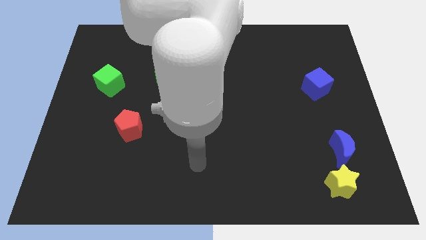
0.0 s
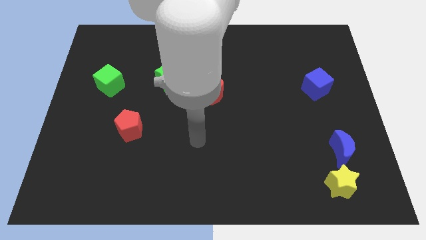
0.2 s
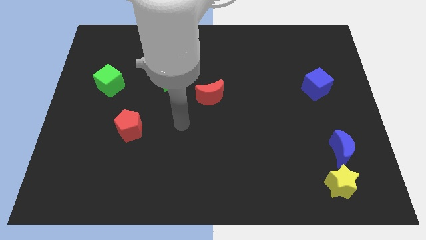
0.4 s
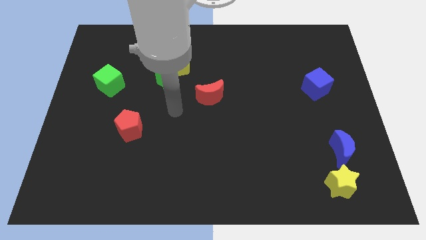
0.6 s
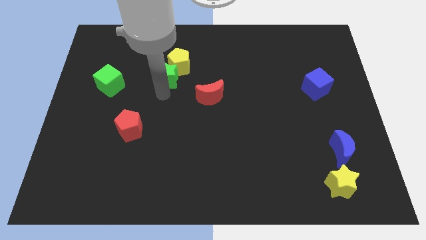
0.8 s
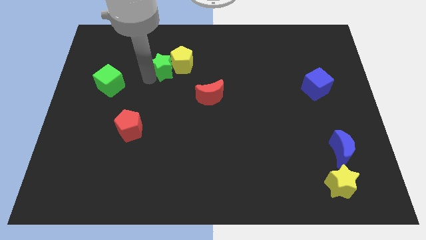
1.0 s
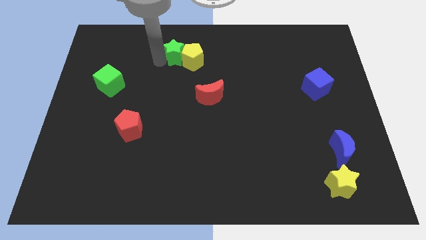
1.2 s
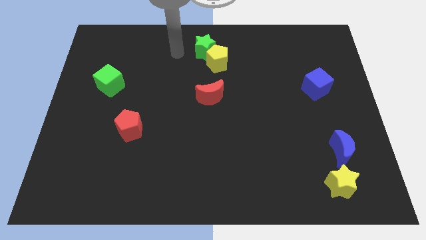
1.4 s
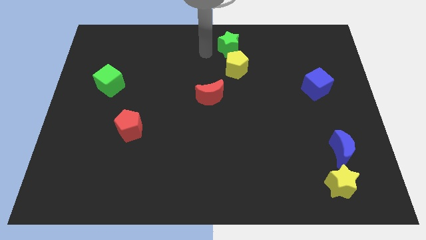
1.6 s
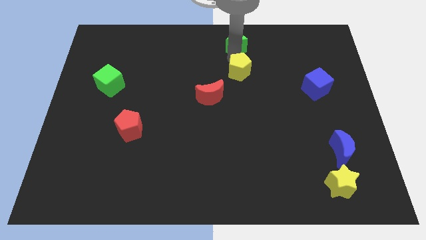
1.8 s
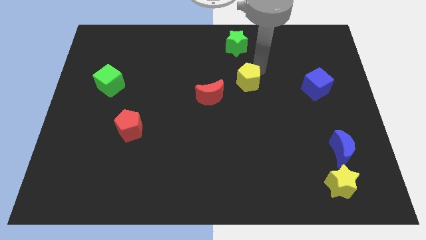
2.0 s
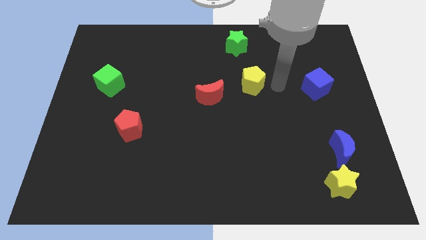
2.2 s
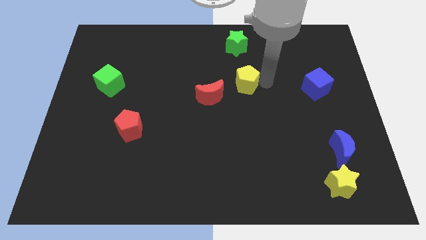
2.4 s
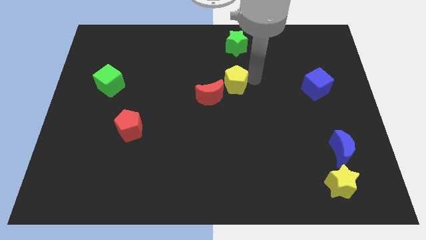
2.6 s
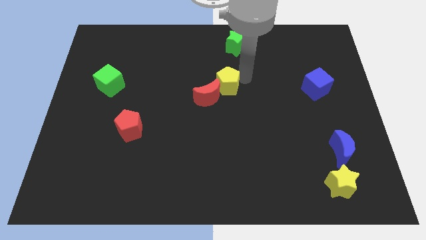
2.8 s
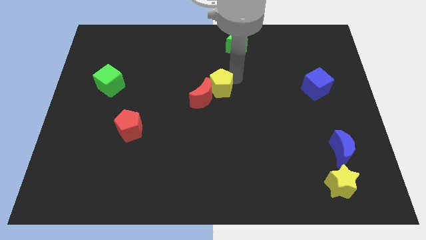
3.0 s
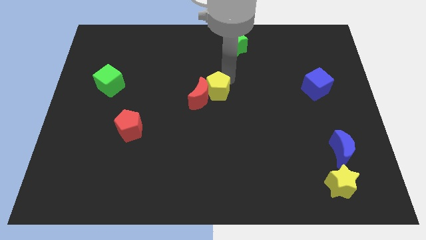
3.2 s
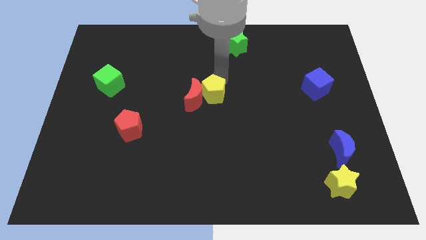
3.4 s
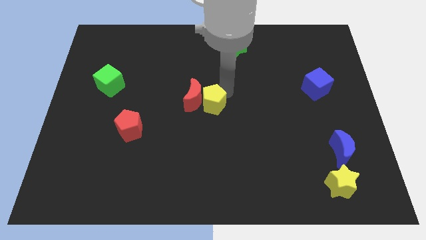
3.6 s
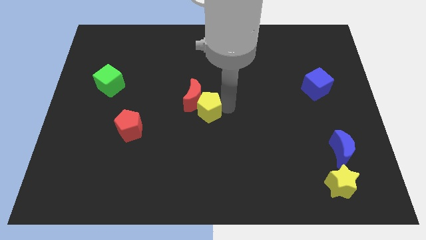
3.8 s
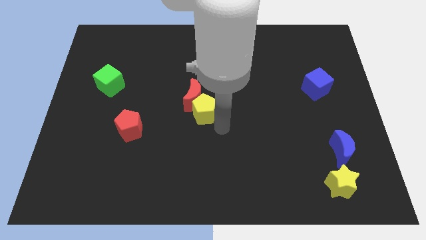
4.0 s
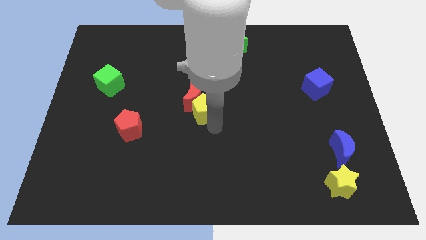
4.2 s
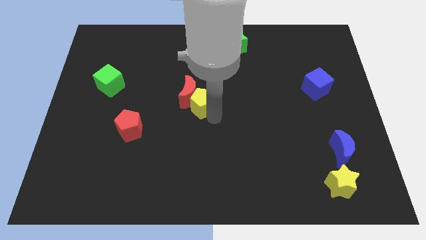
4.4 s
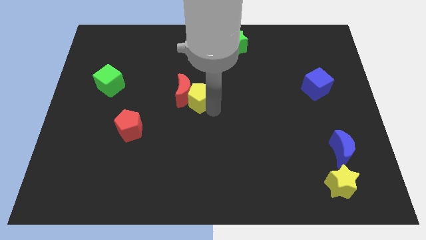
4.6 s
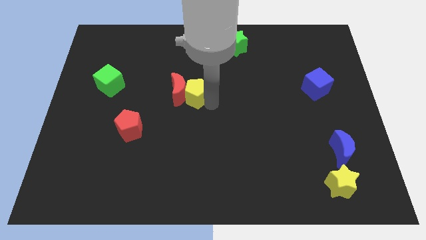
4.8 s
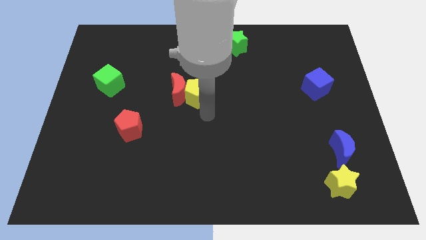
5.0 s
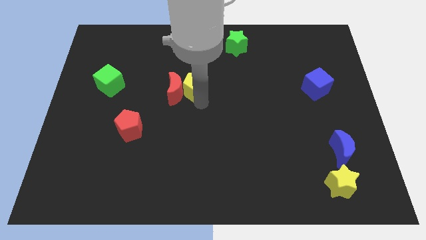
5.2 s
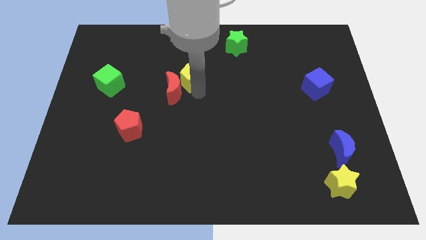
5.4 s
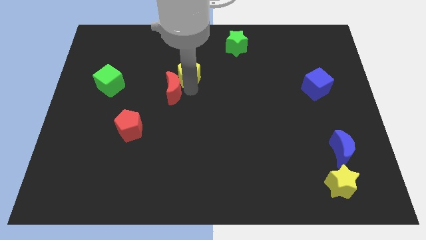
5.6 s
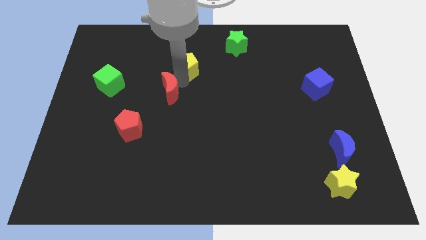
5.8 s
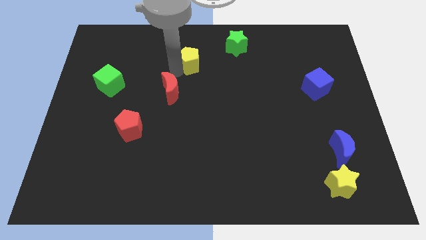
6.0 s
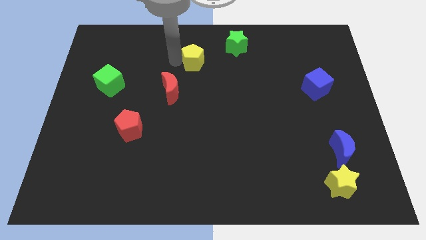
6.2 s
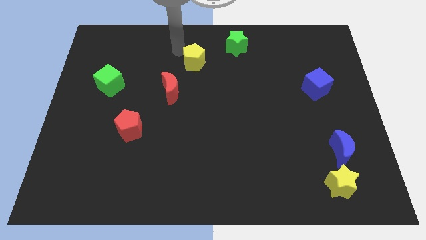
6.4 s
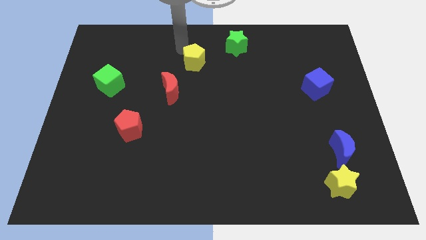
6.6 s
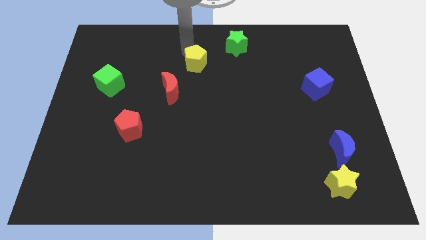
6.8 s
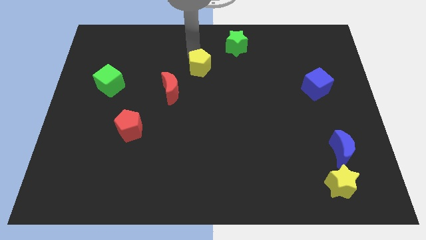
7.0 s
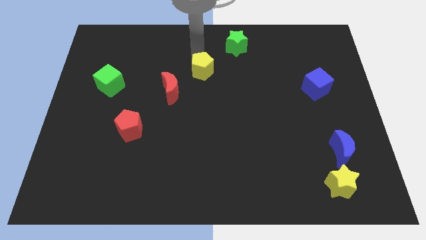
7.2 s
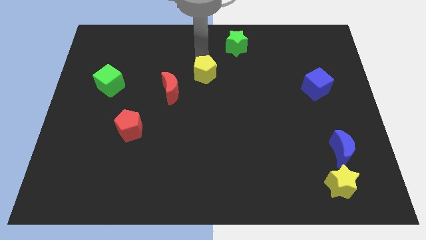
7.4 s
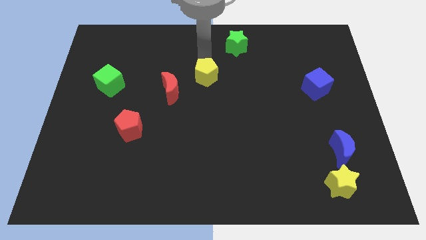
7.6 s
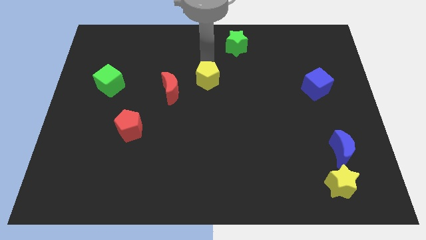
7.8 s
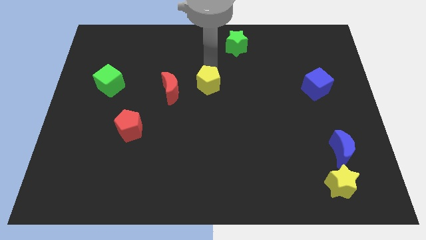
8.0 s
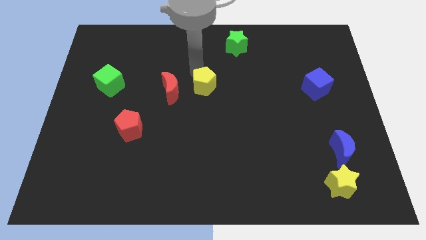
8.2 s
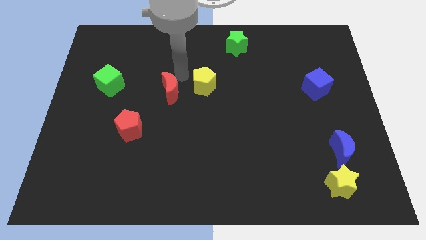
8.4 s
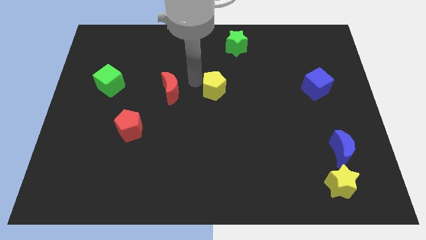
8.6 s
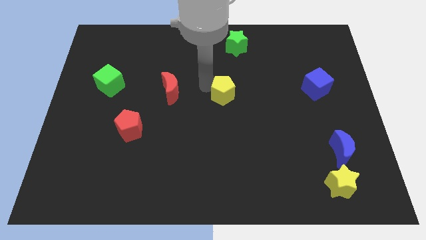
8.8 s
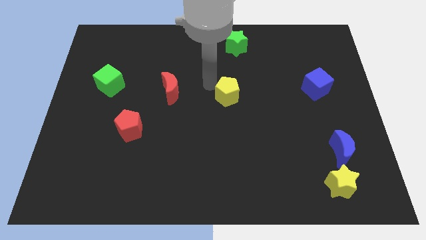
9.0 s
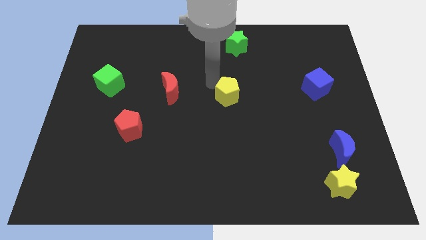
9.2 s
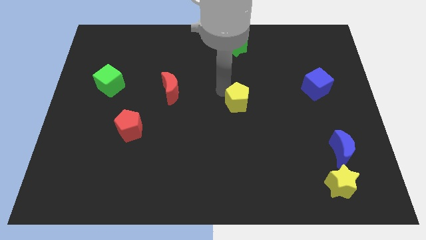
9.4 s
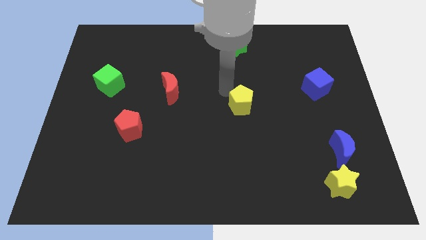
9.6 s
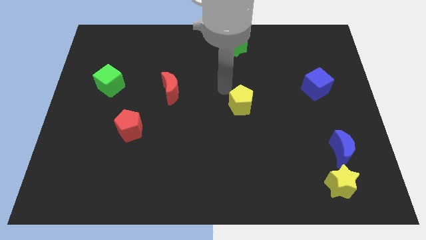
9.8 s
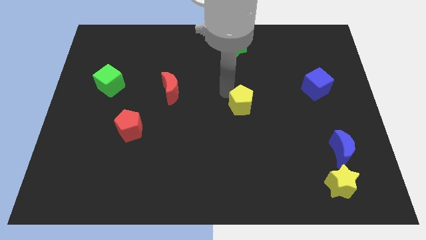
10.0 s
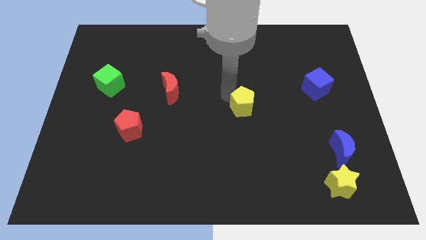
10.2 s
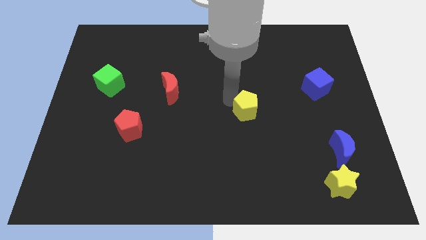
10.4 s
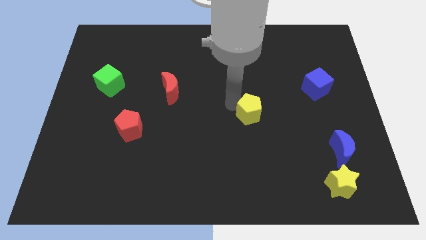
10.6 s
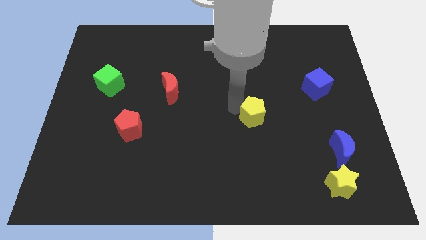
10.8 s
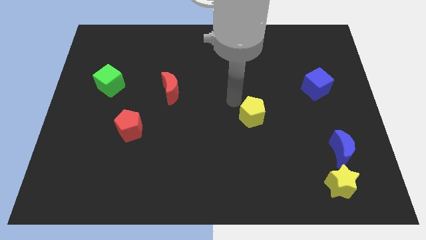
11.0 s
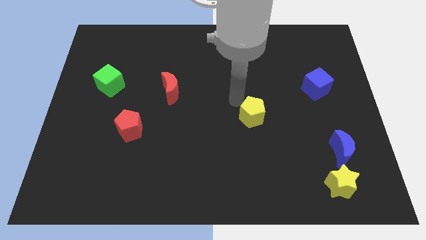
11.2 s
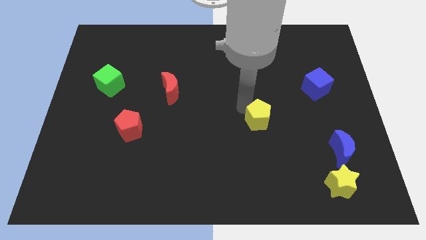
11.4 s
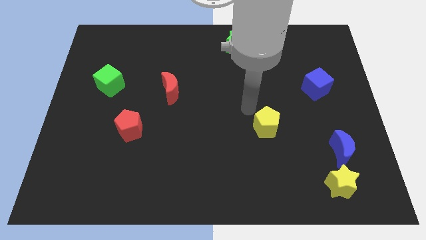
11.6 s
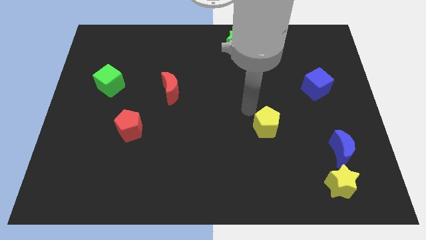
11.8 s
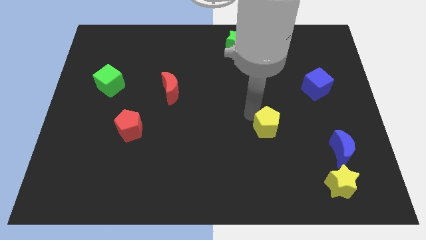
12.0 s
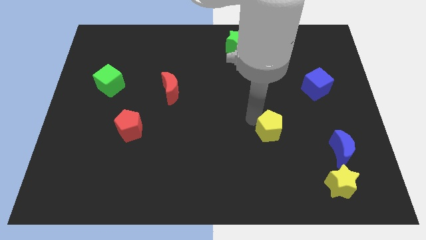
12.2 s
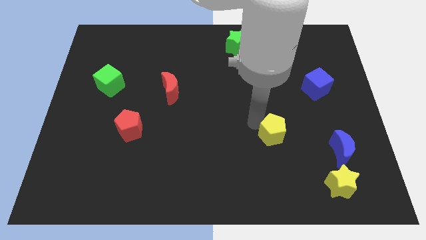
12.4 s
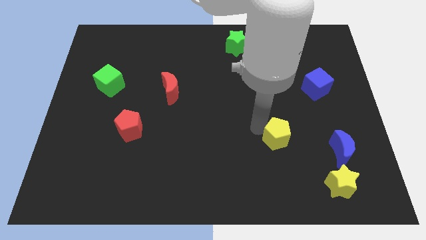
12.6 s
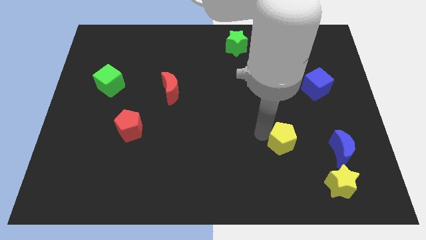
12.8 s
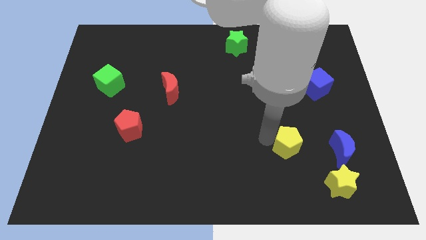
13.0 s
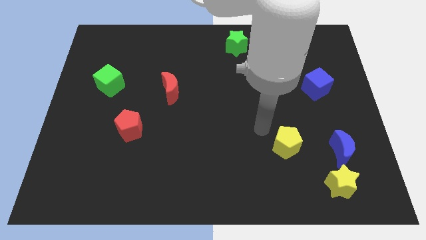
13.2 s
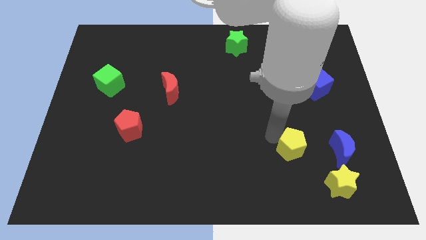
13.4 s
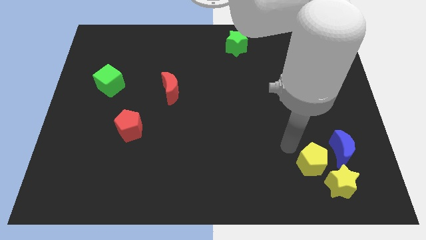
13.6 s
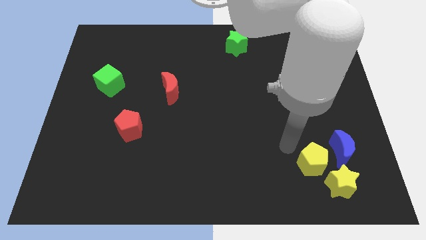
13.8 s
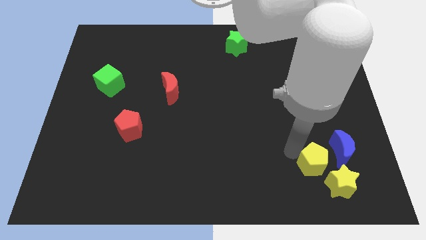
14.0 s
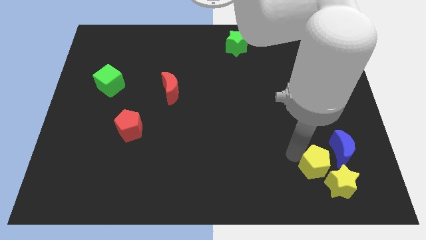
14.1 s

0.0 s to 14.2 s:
move the yellow pentagon close to the yellow star
